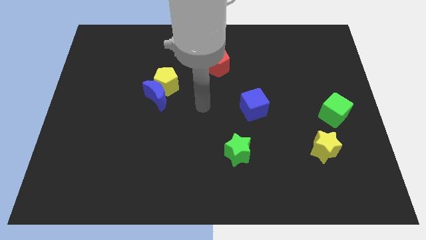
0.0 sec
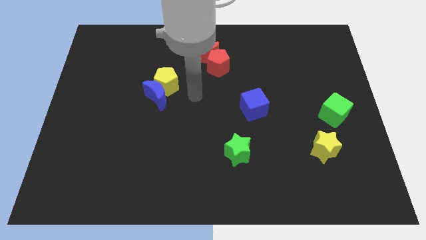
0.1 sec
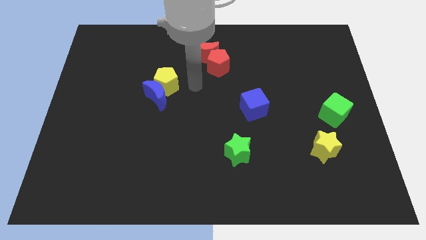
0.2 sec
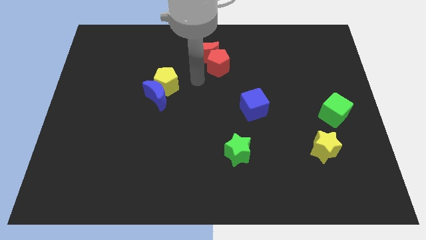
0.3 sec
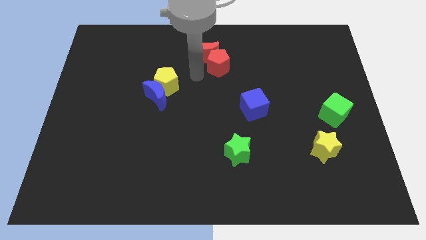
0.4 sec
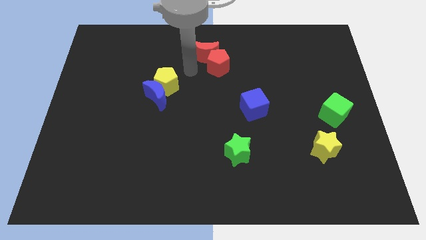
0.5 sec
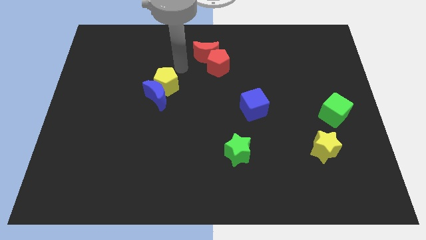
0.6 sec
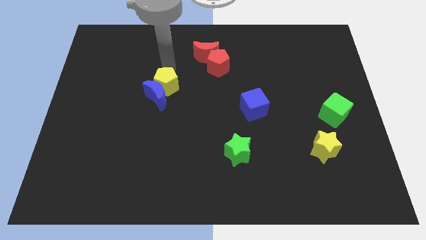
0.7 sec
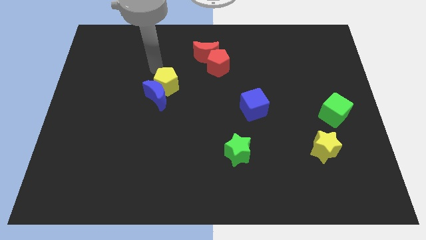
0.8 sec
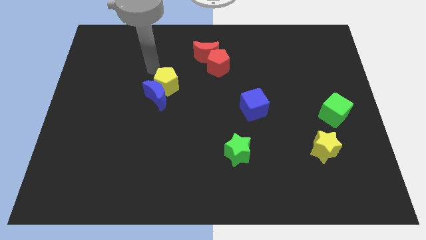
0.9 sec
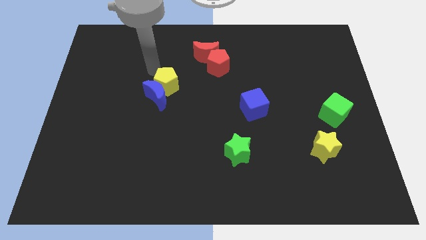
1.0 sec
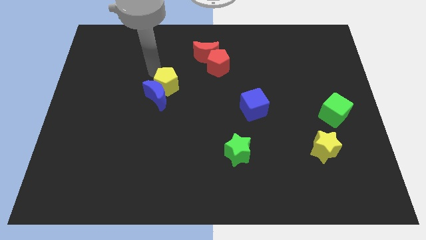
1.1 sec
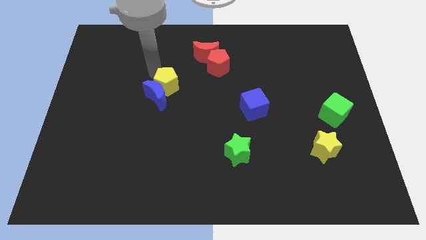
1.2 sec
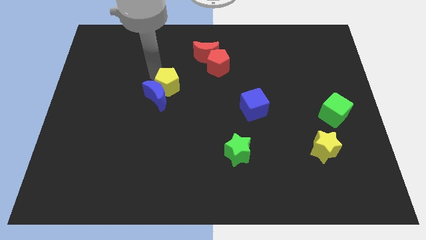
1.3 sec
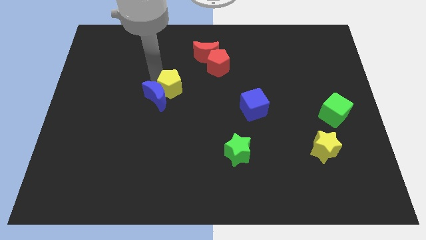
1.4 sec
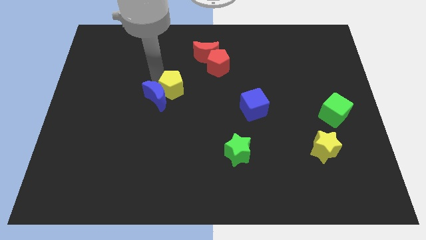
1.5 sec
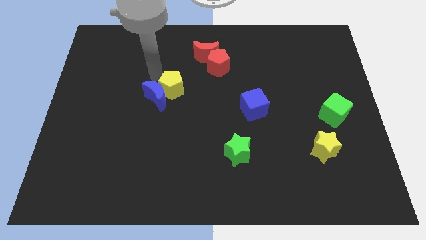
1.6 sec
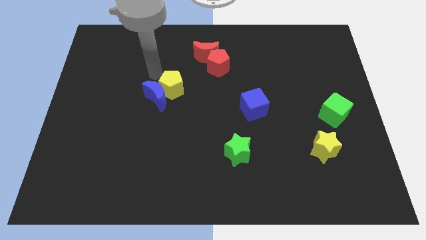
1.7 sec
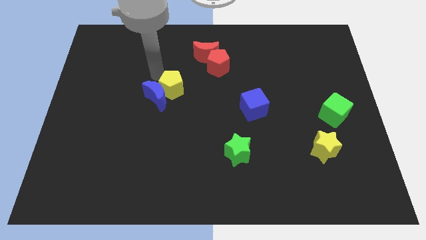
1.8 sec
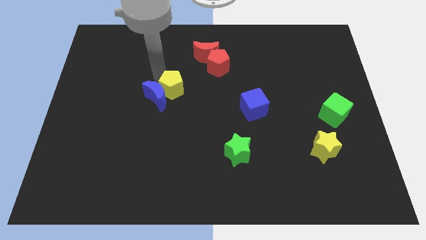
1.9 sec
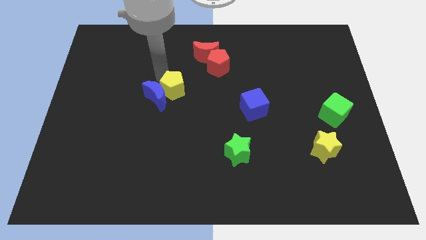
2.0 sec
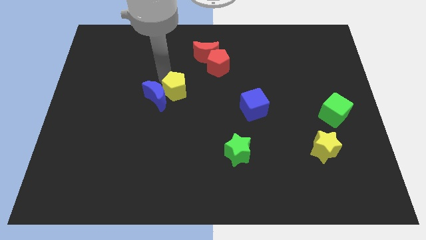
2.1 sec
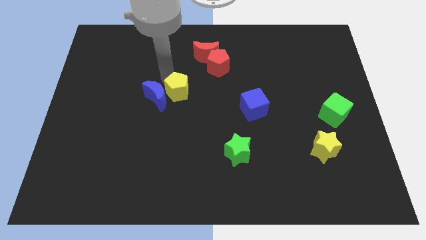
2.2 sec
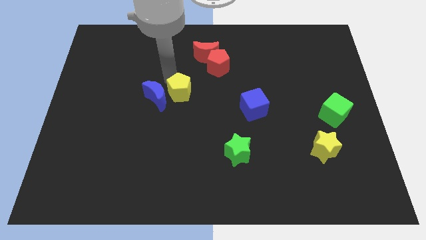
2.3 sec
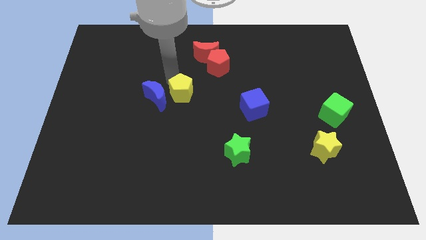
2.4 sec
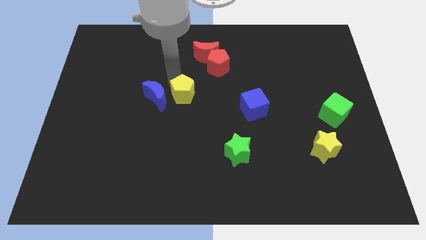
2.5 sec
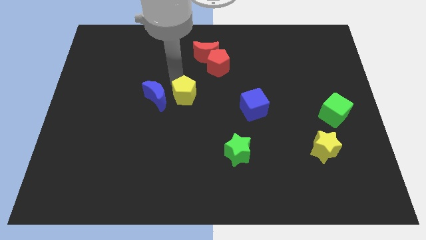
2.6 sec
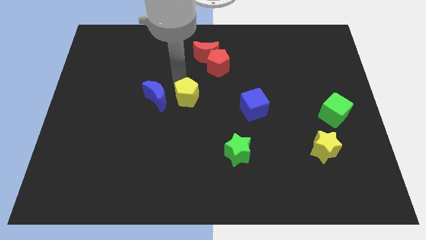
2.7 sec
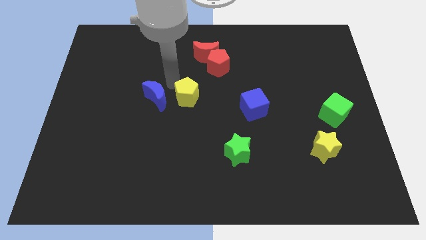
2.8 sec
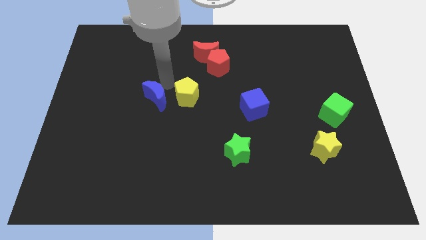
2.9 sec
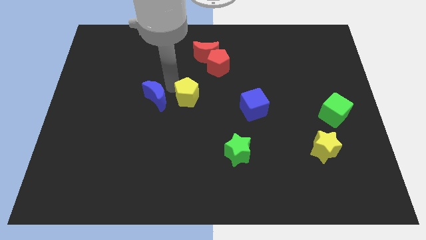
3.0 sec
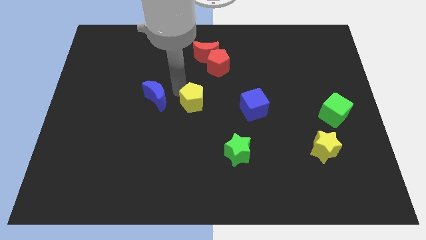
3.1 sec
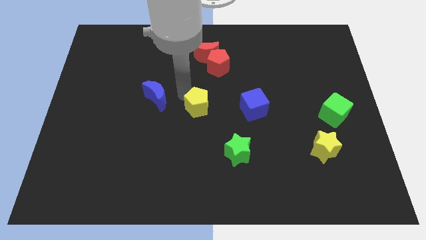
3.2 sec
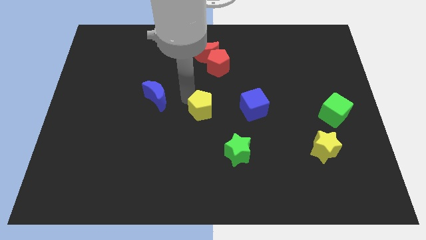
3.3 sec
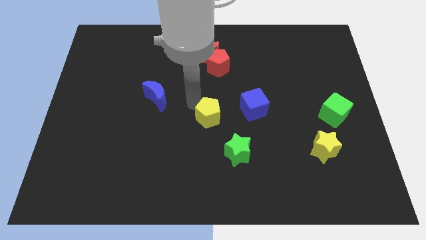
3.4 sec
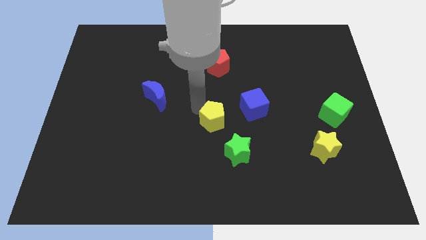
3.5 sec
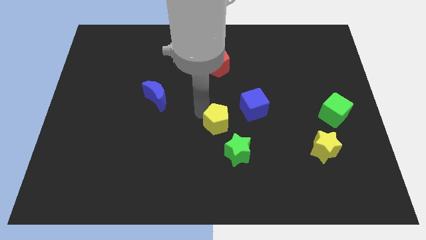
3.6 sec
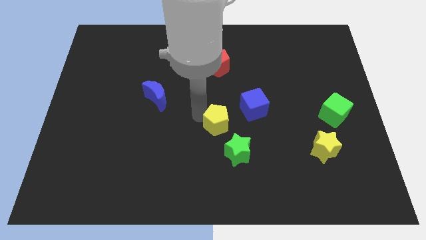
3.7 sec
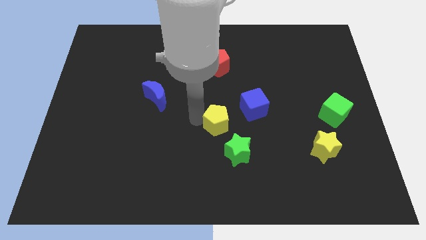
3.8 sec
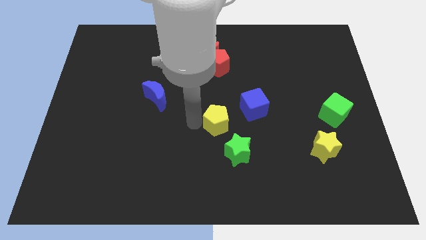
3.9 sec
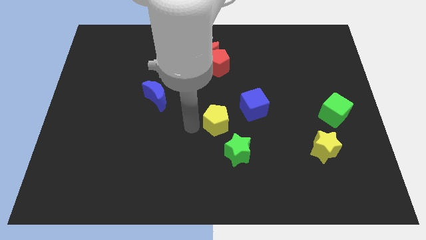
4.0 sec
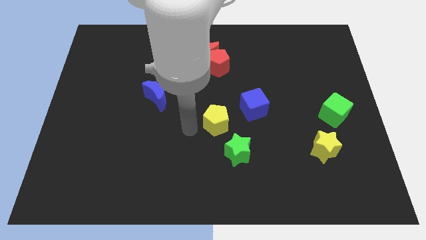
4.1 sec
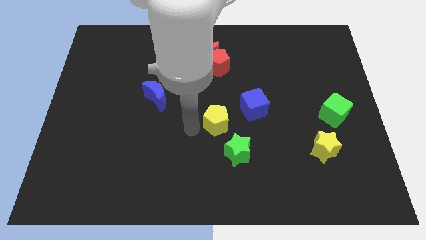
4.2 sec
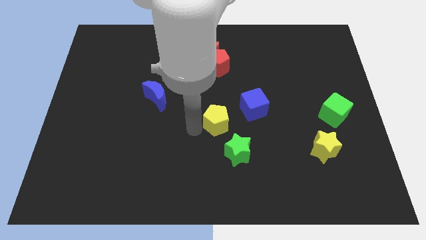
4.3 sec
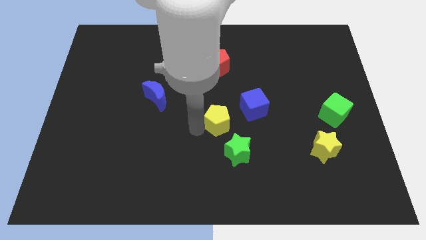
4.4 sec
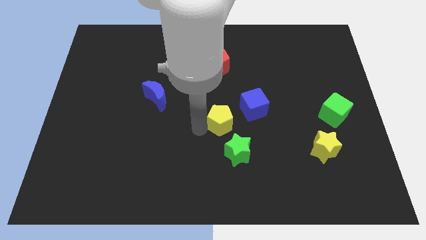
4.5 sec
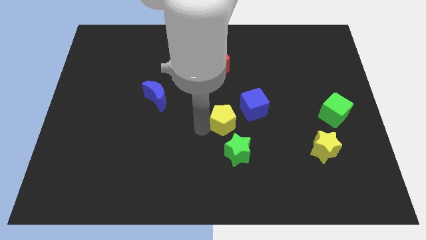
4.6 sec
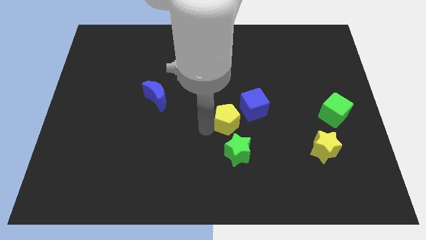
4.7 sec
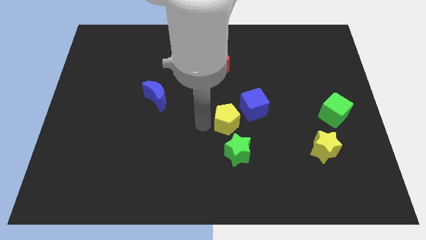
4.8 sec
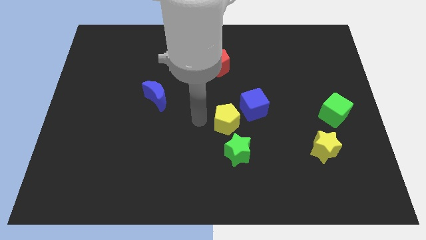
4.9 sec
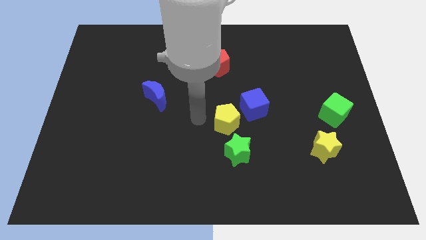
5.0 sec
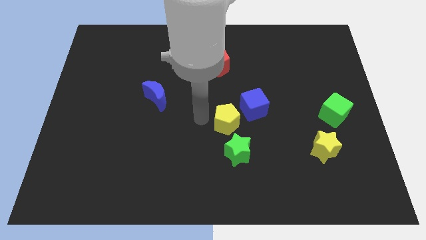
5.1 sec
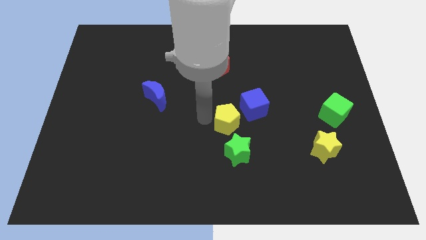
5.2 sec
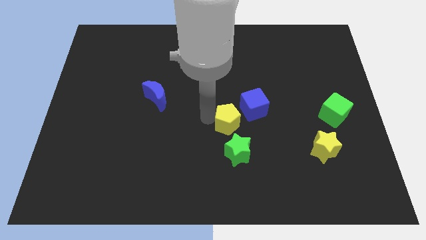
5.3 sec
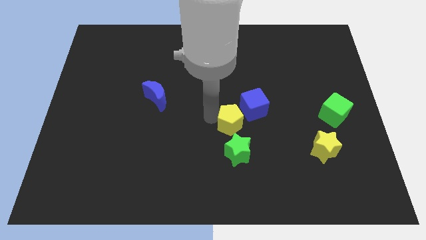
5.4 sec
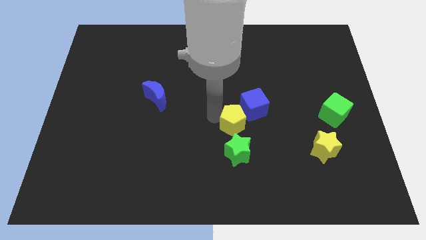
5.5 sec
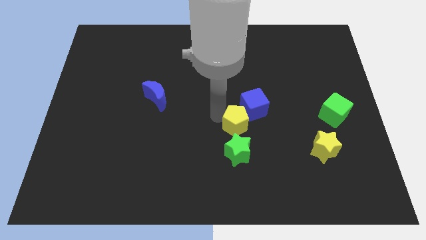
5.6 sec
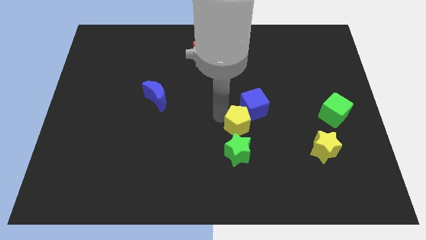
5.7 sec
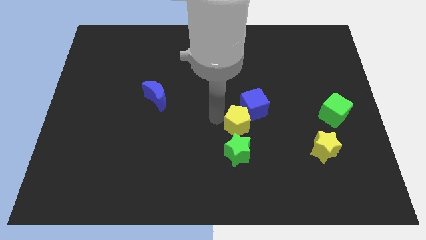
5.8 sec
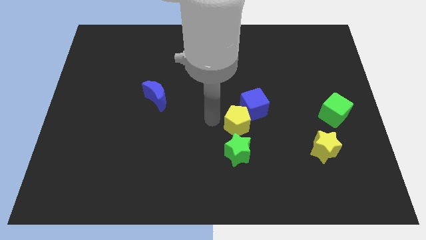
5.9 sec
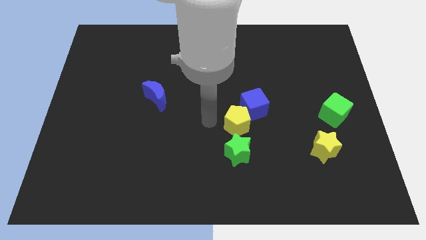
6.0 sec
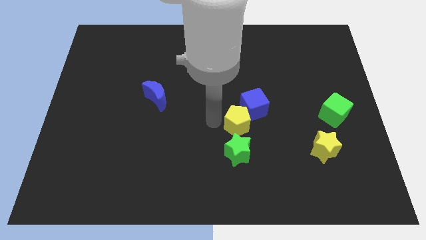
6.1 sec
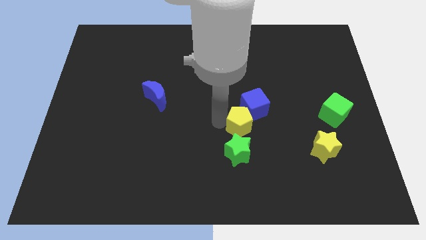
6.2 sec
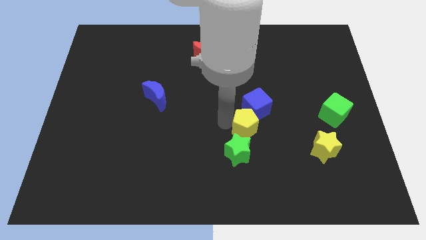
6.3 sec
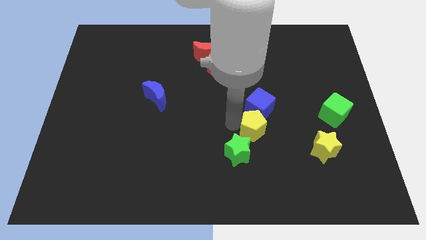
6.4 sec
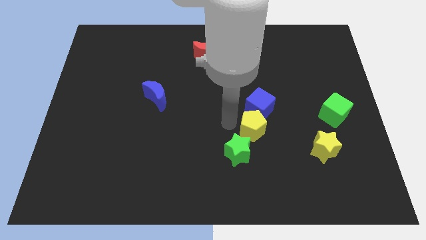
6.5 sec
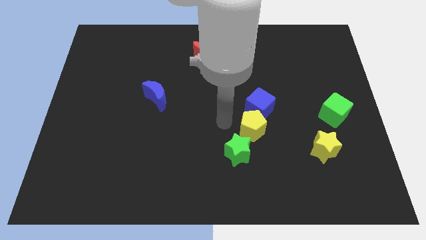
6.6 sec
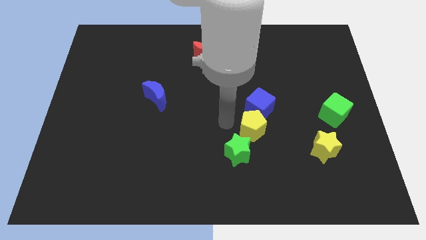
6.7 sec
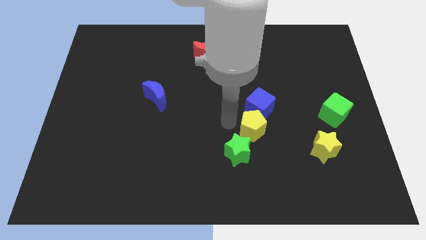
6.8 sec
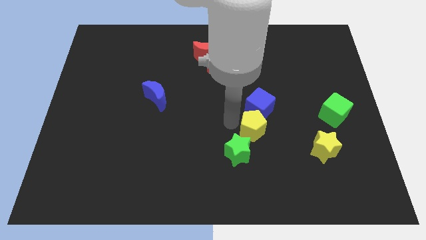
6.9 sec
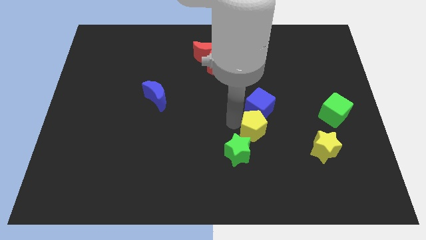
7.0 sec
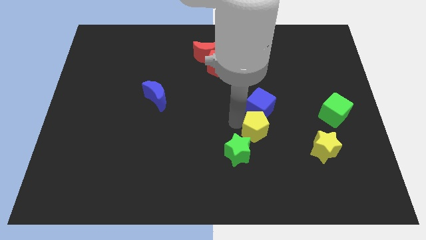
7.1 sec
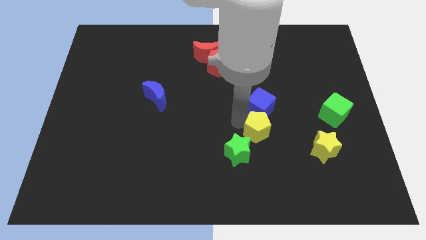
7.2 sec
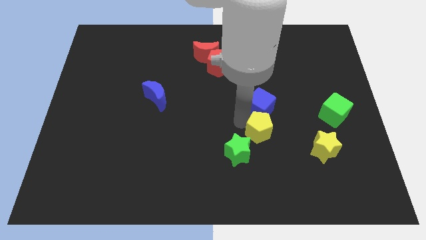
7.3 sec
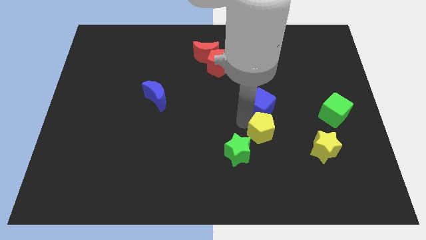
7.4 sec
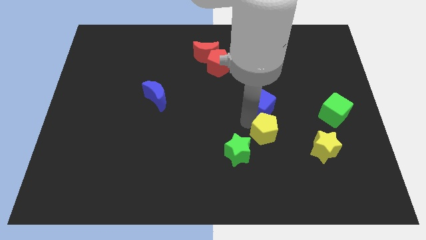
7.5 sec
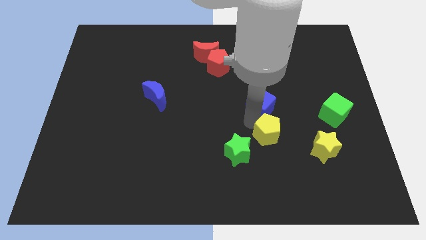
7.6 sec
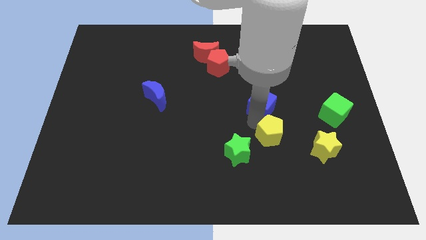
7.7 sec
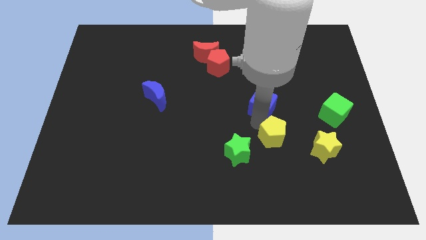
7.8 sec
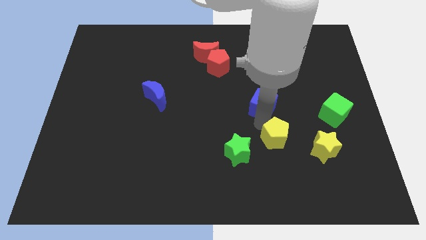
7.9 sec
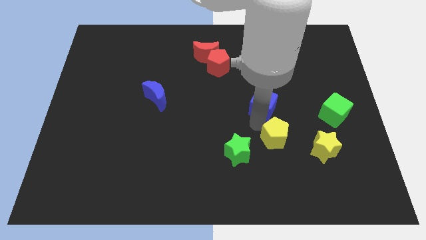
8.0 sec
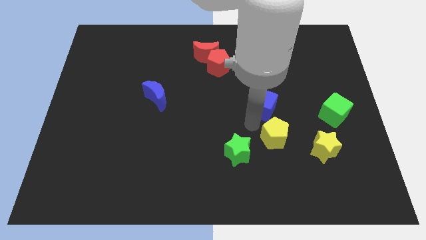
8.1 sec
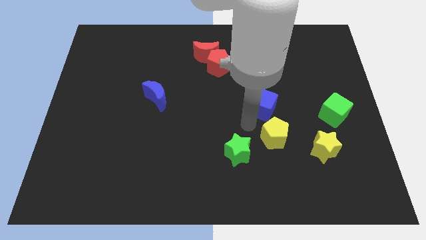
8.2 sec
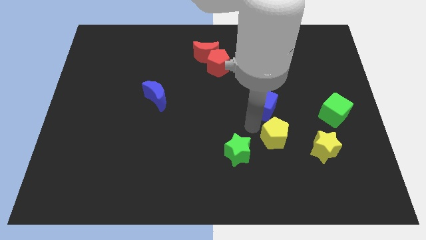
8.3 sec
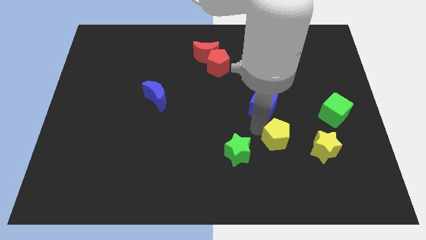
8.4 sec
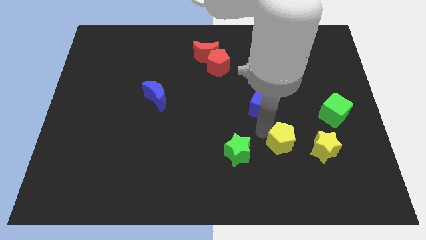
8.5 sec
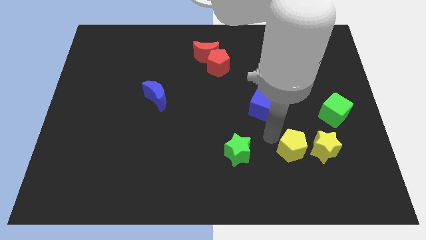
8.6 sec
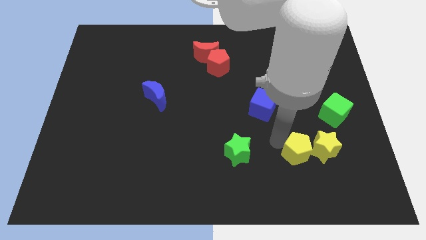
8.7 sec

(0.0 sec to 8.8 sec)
put the yellow pentagon towards the yellow star
